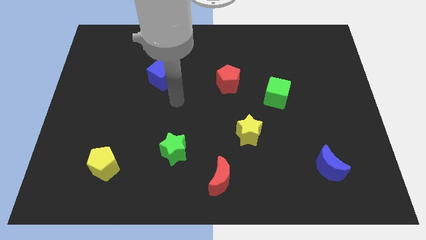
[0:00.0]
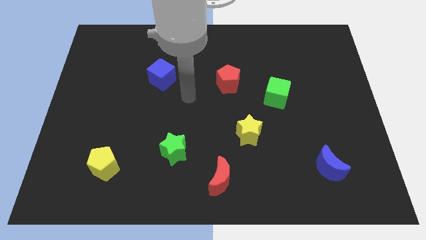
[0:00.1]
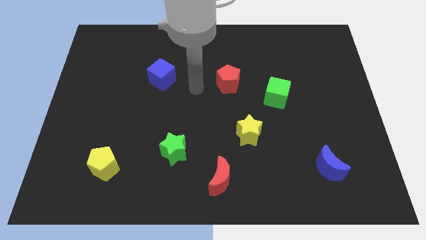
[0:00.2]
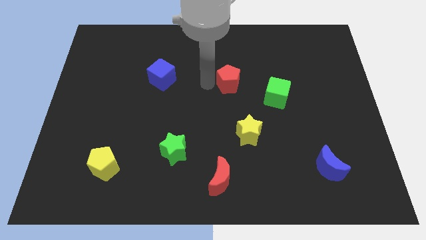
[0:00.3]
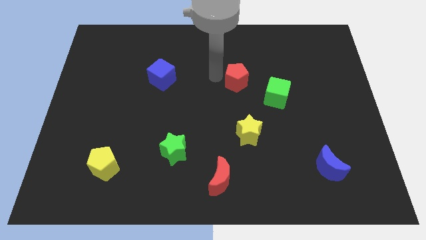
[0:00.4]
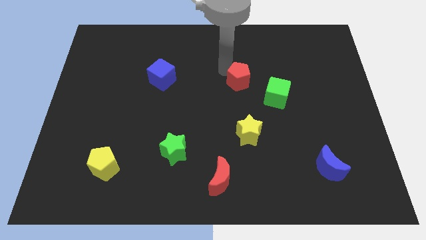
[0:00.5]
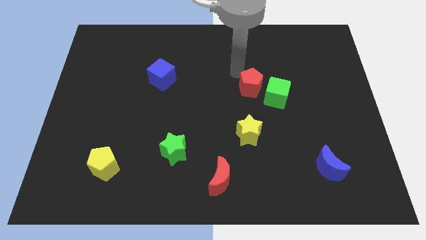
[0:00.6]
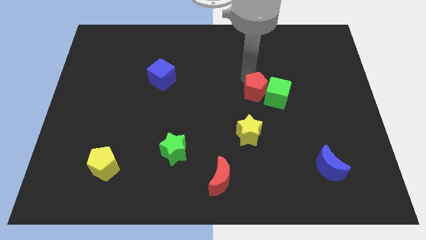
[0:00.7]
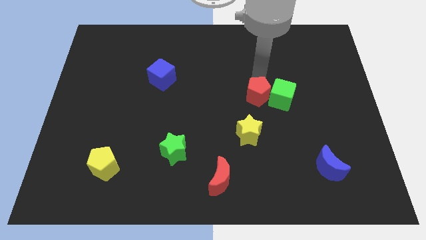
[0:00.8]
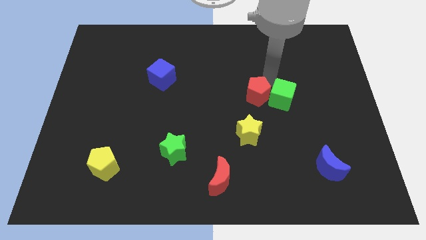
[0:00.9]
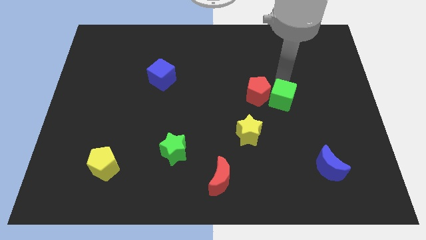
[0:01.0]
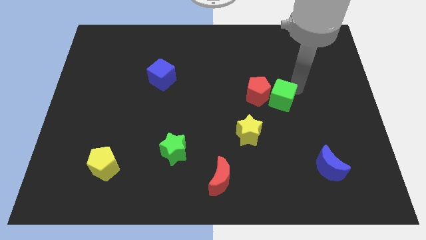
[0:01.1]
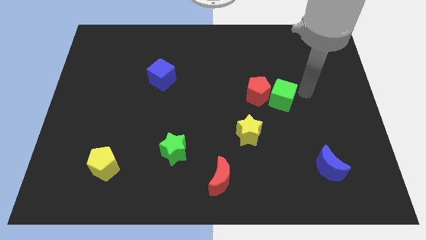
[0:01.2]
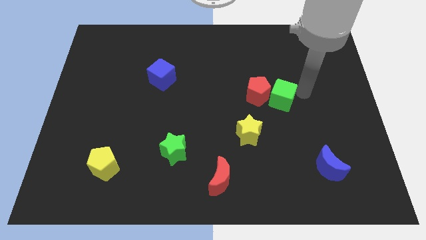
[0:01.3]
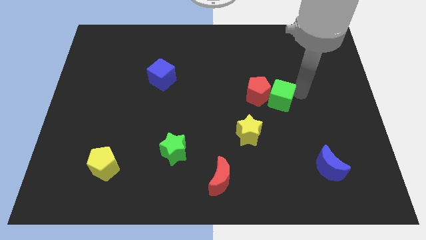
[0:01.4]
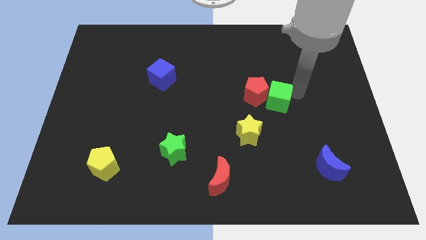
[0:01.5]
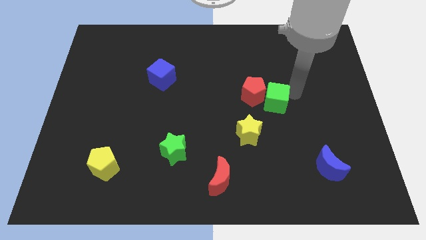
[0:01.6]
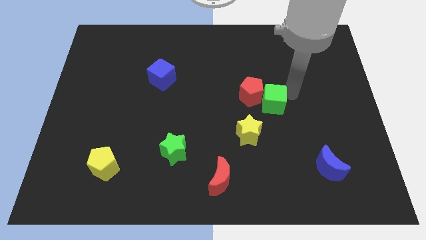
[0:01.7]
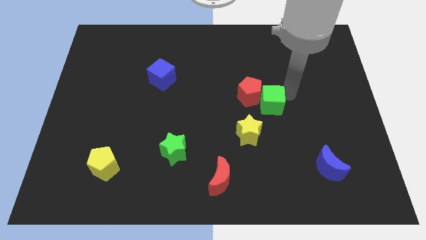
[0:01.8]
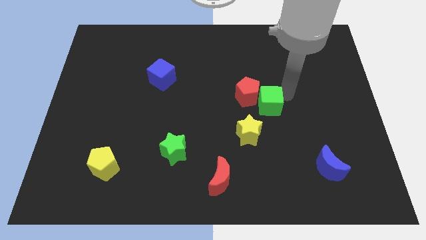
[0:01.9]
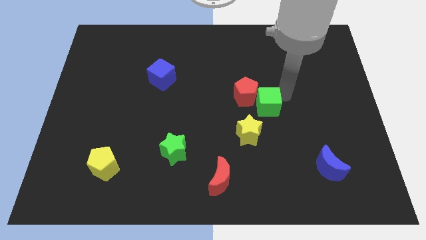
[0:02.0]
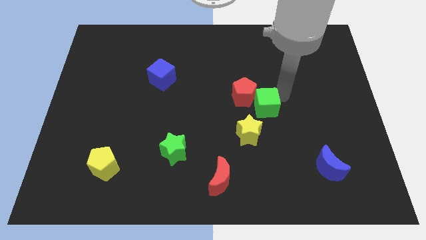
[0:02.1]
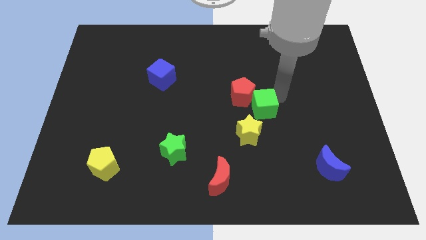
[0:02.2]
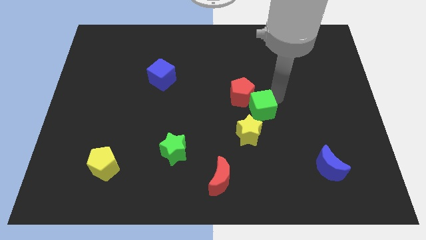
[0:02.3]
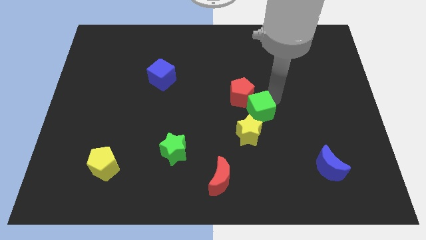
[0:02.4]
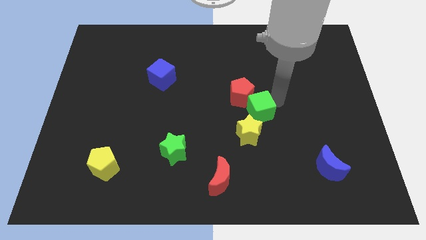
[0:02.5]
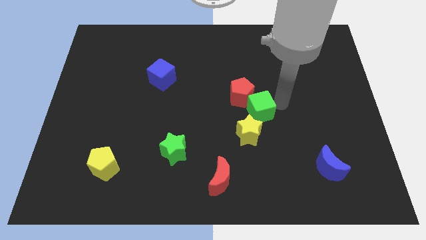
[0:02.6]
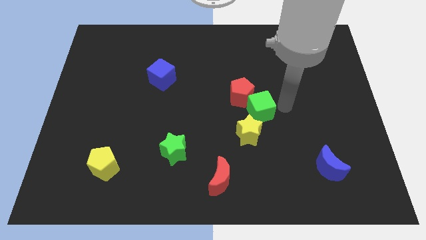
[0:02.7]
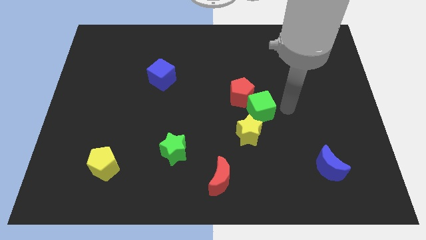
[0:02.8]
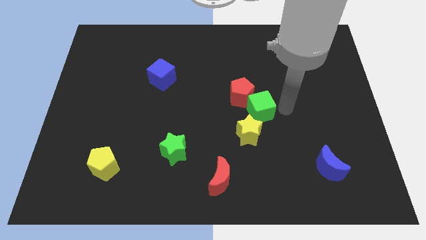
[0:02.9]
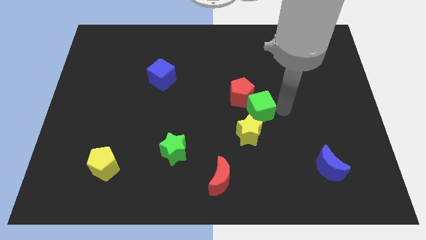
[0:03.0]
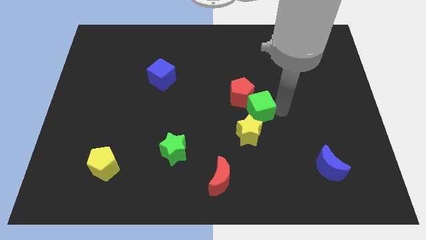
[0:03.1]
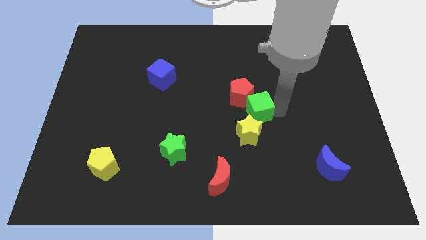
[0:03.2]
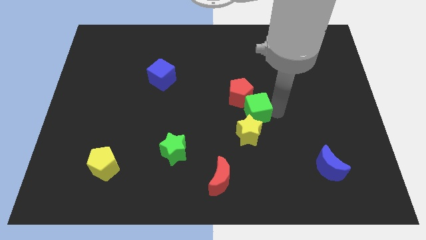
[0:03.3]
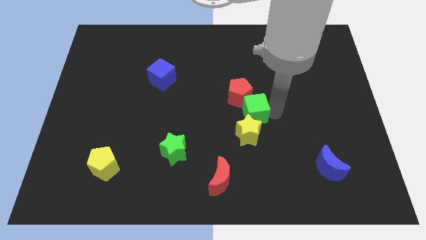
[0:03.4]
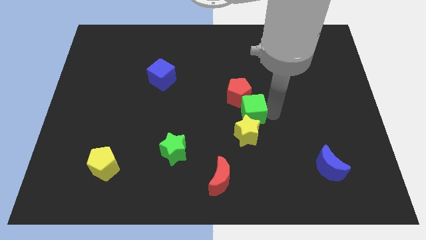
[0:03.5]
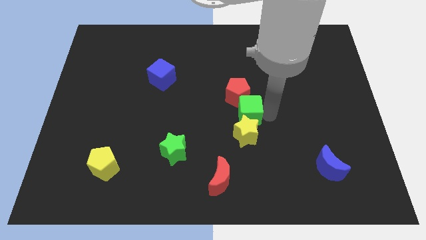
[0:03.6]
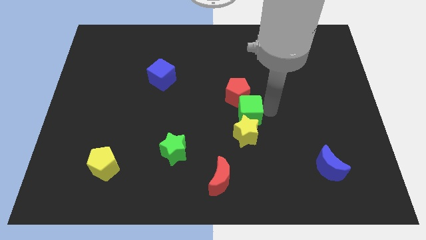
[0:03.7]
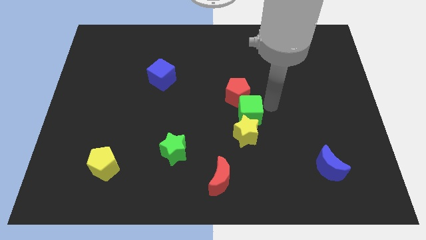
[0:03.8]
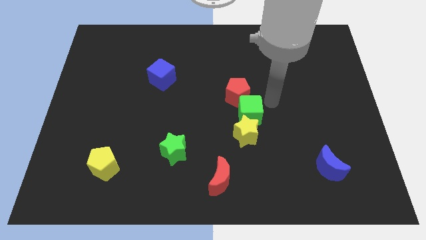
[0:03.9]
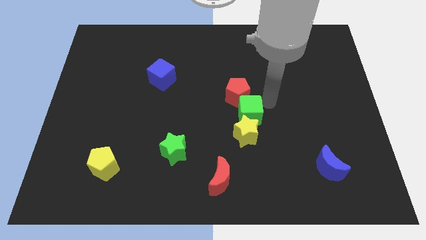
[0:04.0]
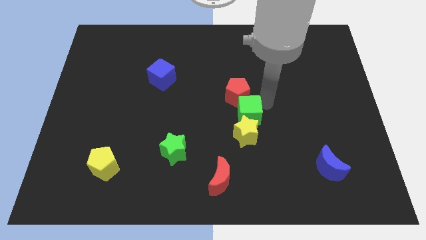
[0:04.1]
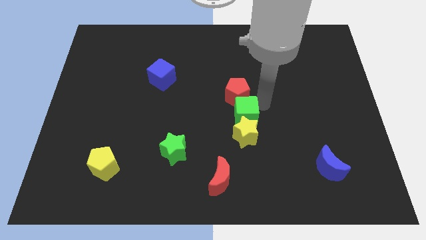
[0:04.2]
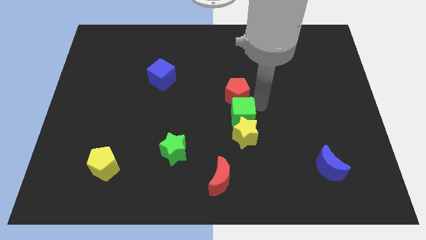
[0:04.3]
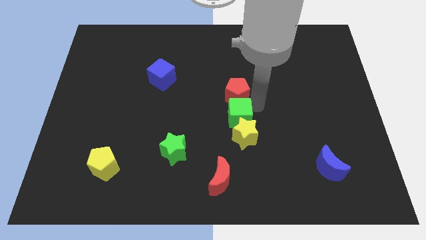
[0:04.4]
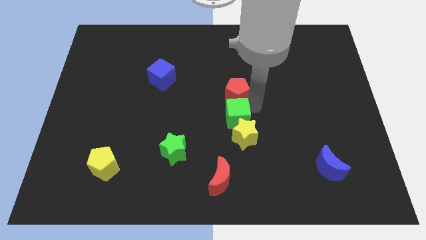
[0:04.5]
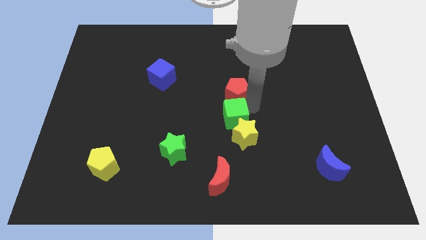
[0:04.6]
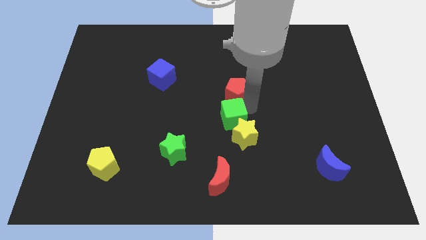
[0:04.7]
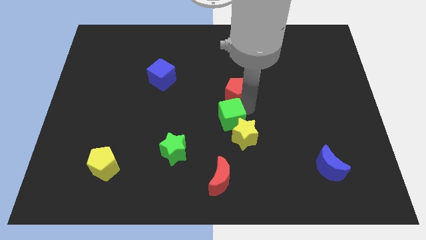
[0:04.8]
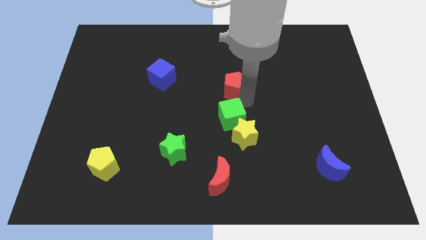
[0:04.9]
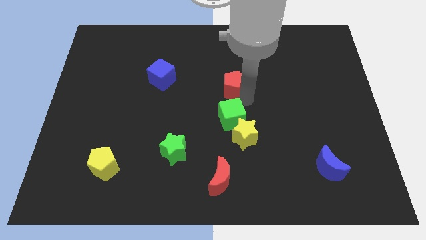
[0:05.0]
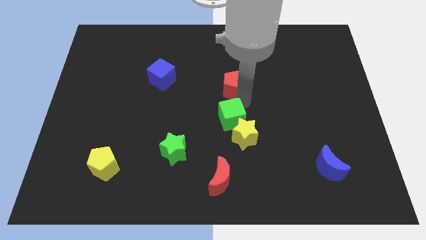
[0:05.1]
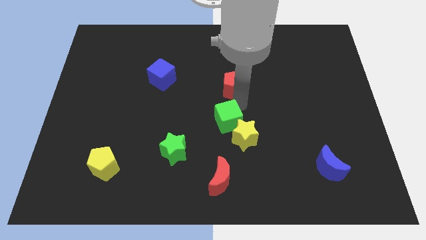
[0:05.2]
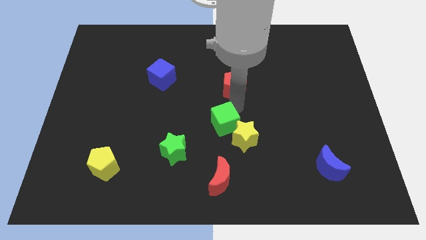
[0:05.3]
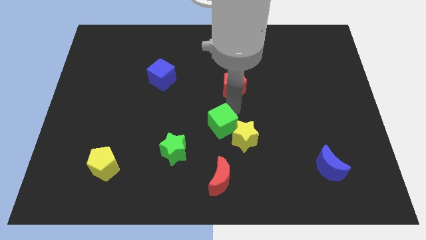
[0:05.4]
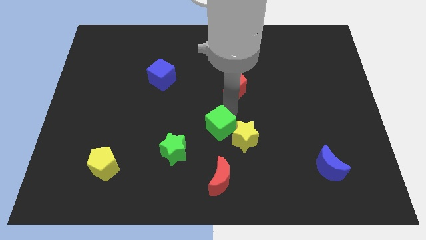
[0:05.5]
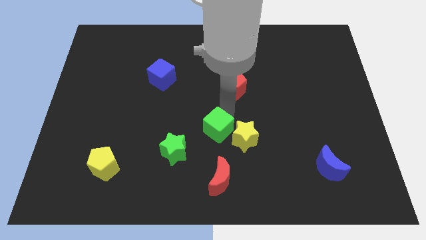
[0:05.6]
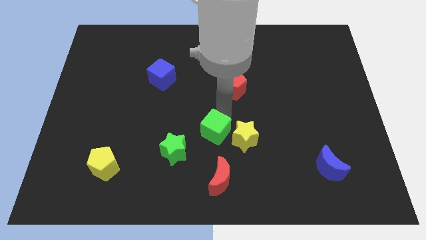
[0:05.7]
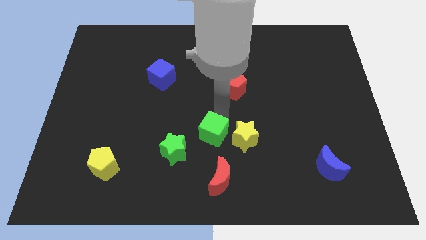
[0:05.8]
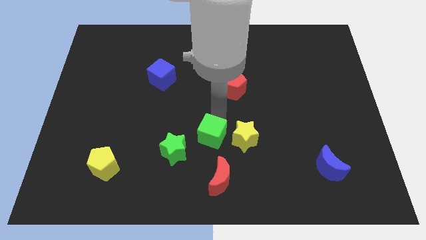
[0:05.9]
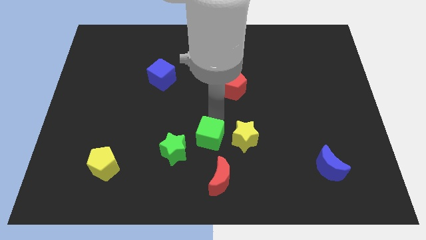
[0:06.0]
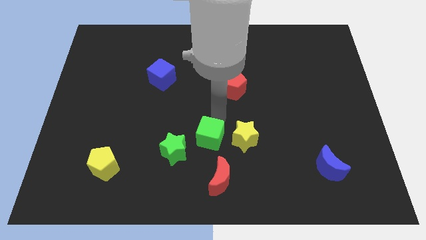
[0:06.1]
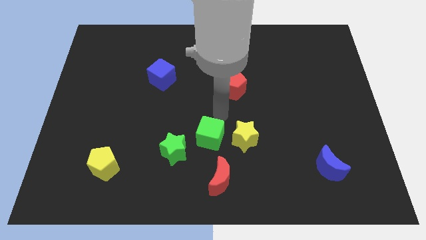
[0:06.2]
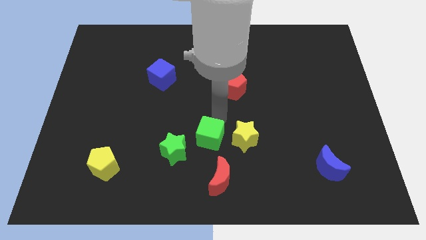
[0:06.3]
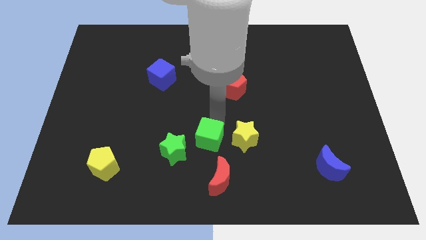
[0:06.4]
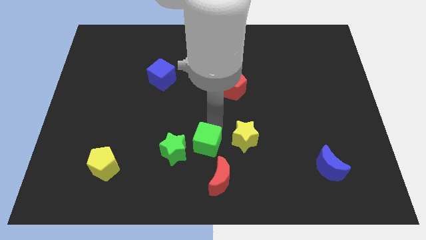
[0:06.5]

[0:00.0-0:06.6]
move the green cube down and left diagonally

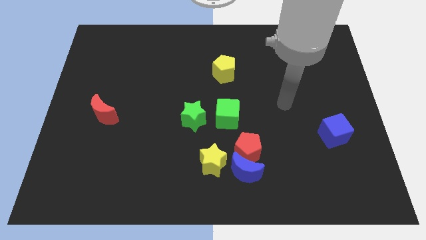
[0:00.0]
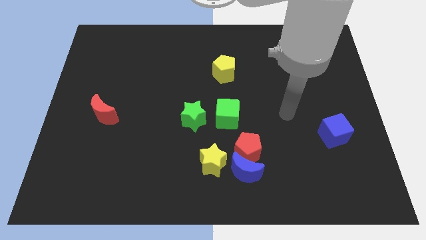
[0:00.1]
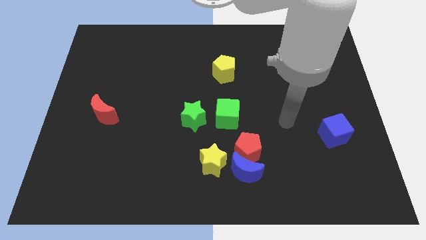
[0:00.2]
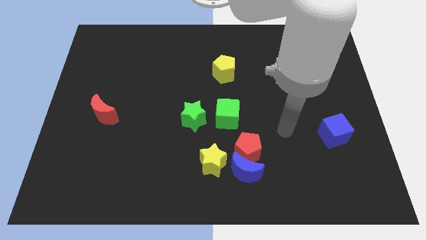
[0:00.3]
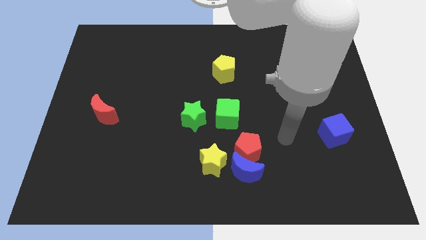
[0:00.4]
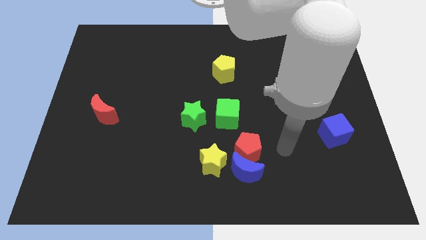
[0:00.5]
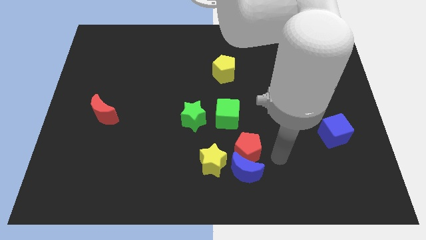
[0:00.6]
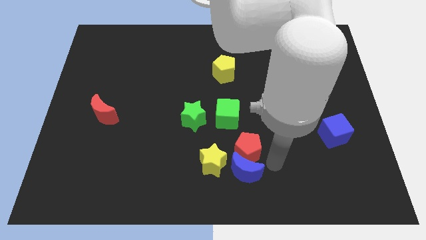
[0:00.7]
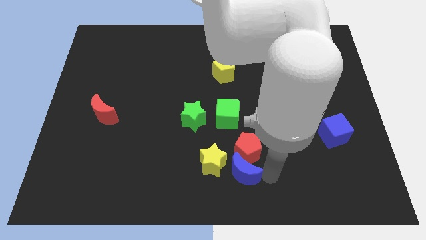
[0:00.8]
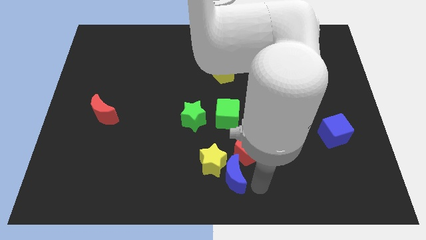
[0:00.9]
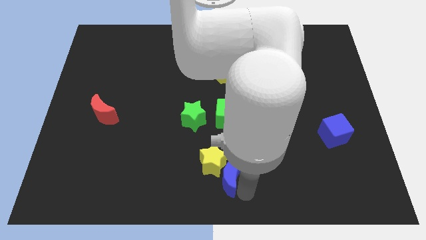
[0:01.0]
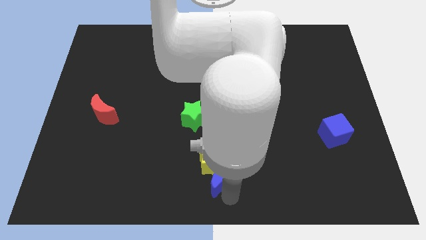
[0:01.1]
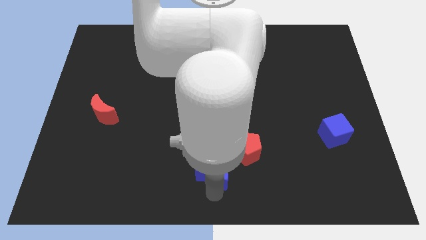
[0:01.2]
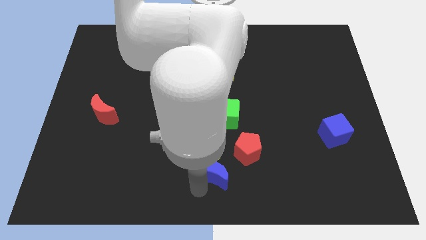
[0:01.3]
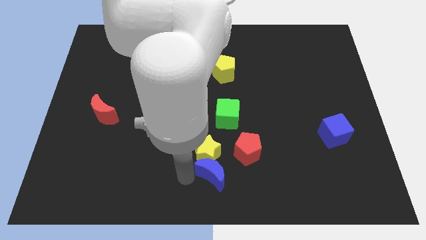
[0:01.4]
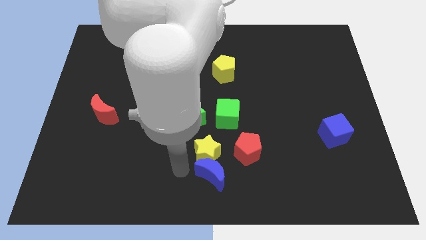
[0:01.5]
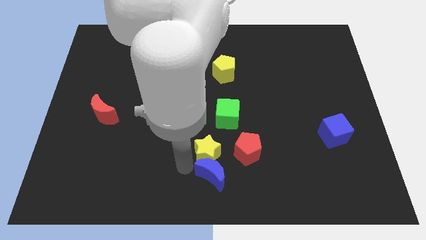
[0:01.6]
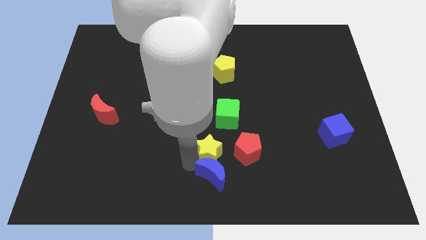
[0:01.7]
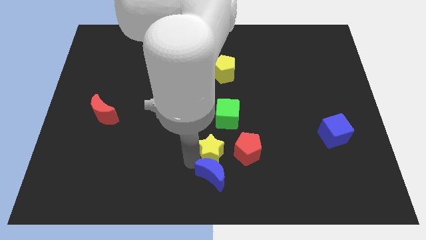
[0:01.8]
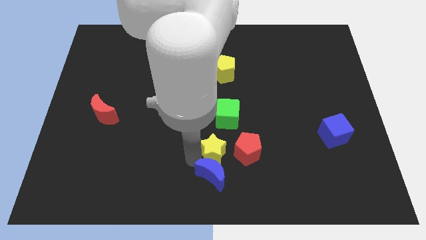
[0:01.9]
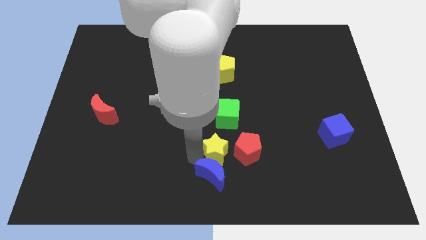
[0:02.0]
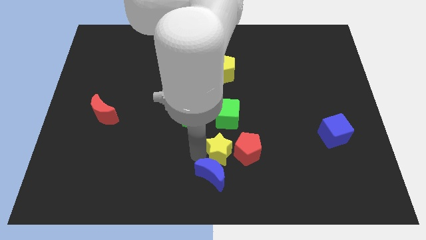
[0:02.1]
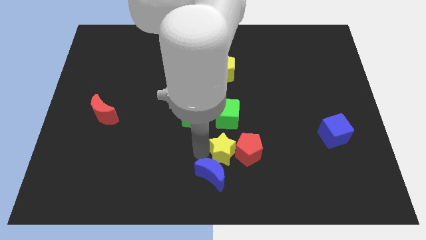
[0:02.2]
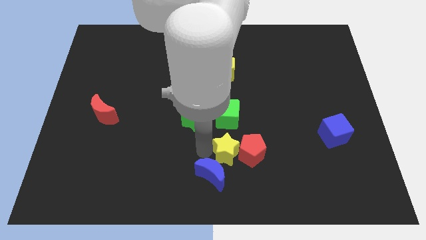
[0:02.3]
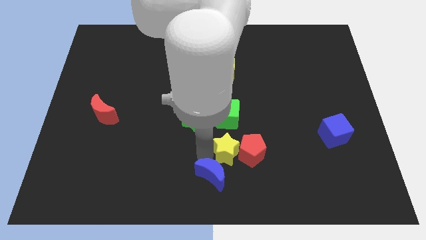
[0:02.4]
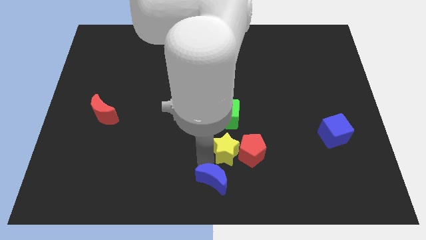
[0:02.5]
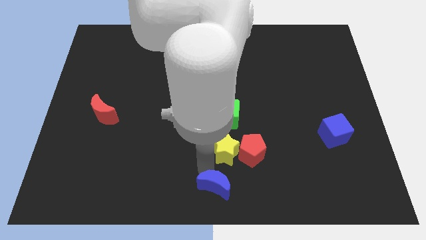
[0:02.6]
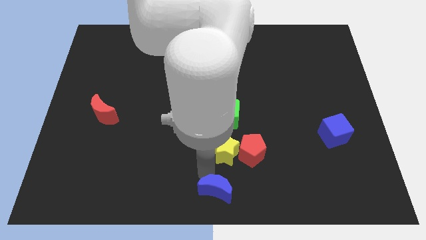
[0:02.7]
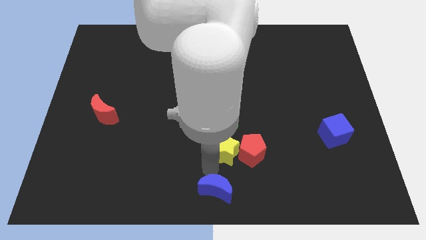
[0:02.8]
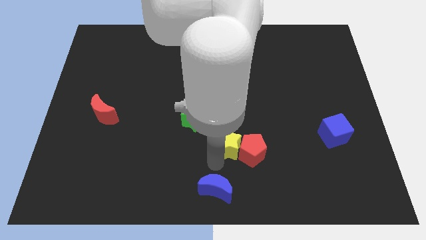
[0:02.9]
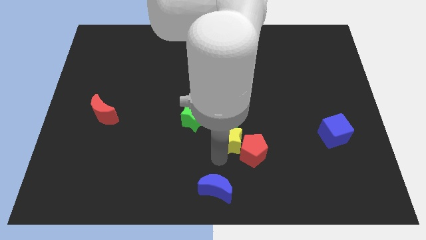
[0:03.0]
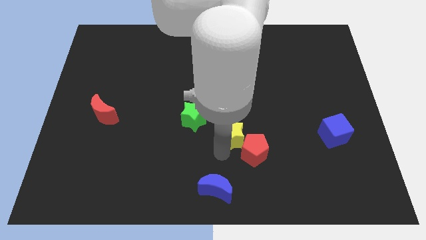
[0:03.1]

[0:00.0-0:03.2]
push the yellow star up and to the right diagonally slightly
